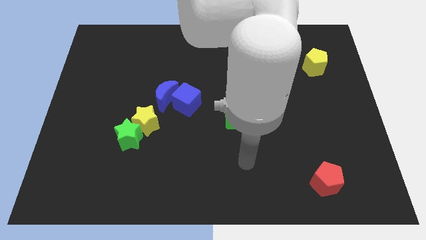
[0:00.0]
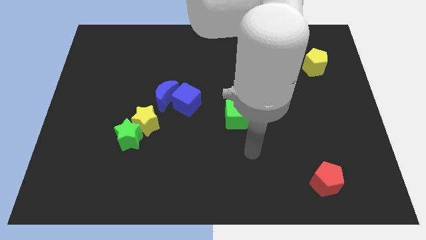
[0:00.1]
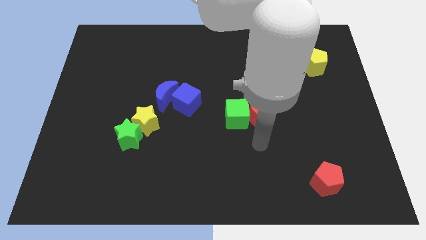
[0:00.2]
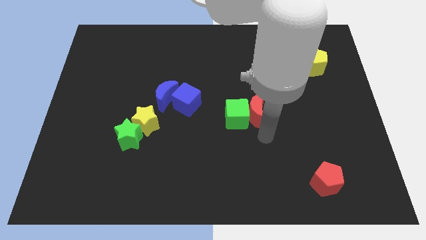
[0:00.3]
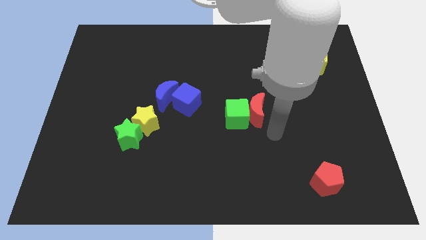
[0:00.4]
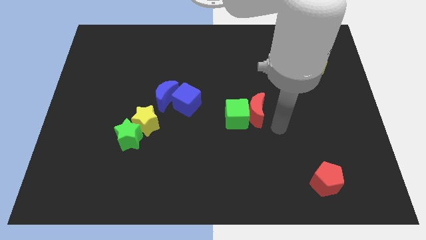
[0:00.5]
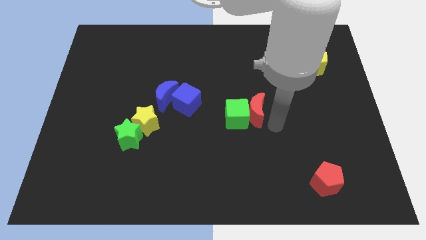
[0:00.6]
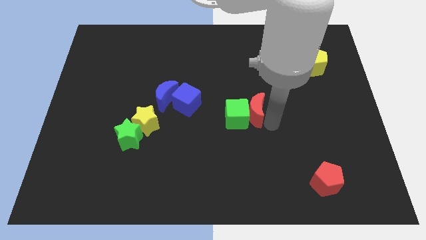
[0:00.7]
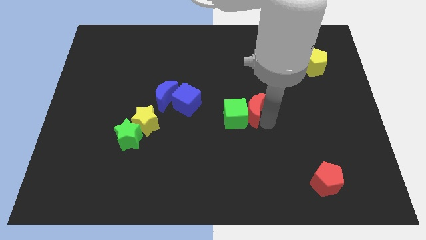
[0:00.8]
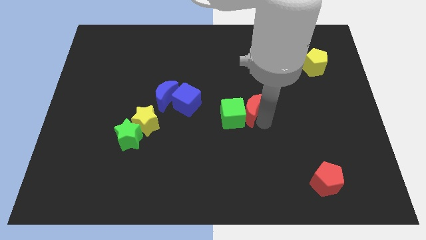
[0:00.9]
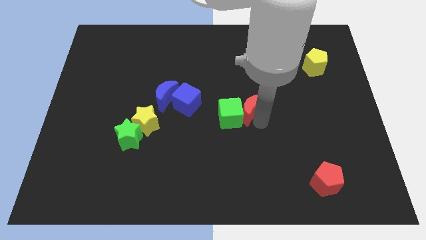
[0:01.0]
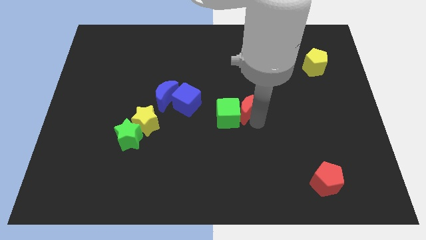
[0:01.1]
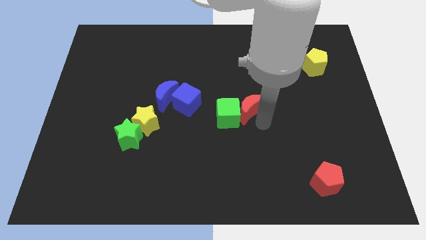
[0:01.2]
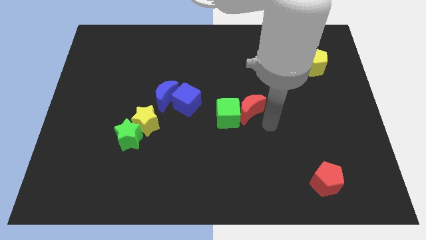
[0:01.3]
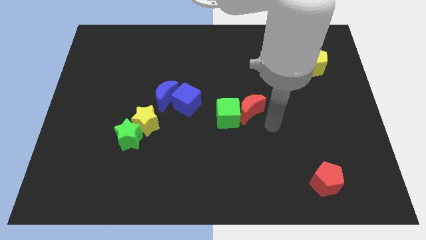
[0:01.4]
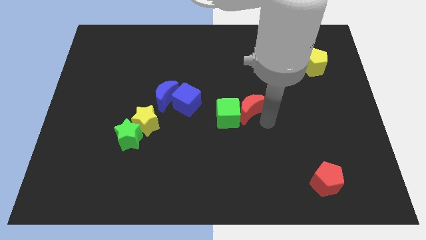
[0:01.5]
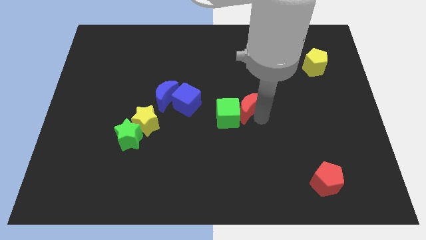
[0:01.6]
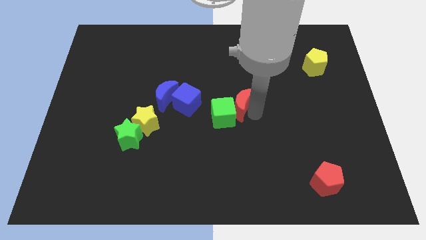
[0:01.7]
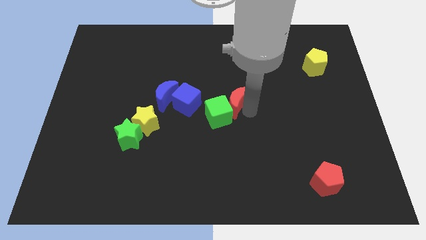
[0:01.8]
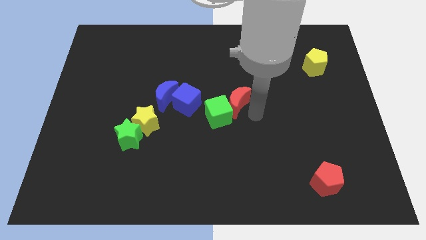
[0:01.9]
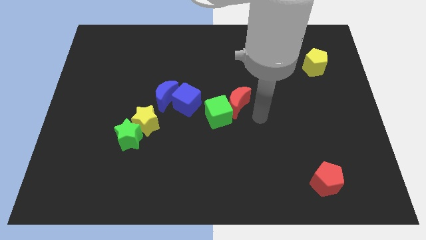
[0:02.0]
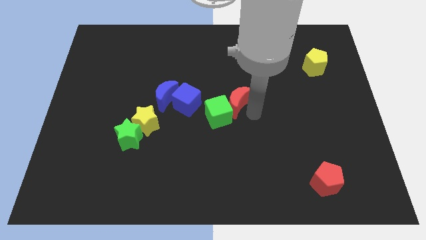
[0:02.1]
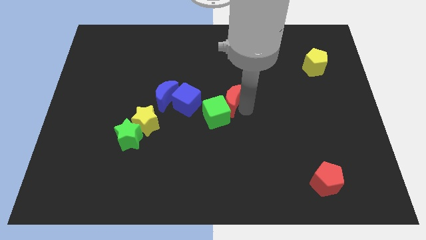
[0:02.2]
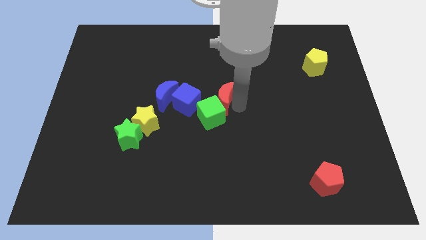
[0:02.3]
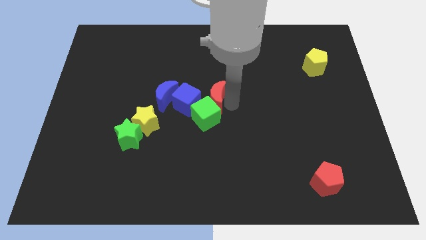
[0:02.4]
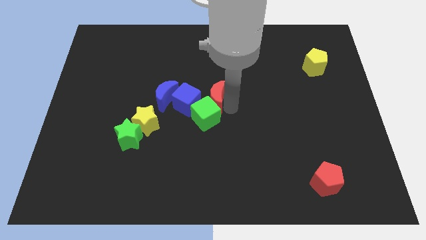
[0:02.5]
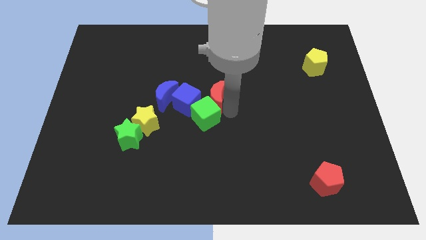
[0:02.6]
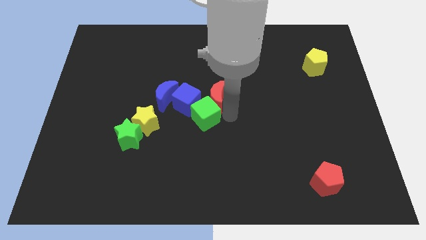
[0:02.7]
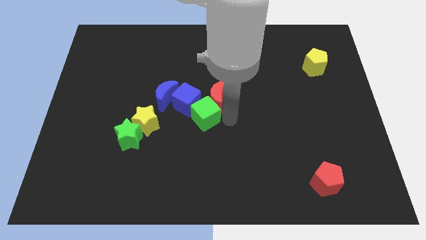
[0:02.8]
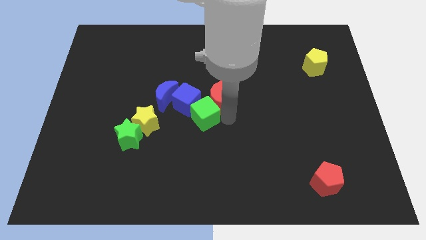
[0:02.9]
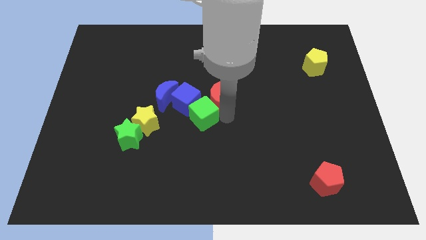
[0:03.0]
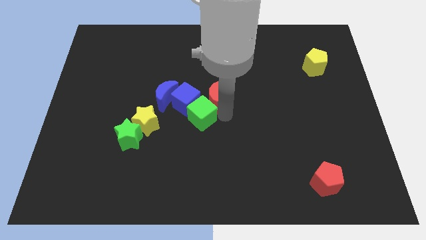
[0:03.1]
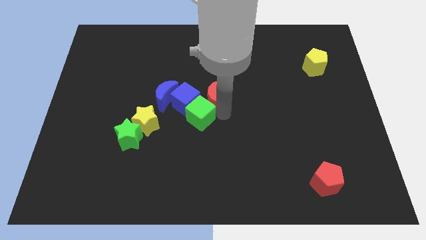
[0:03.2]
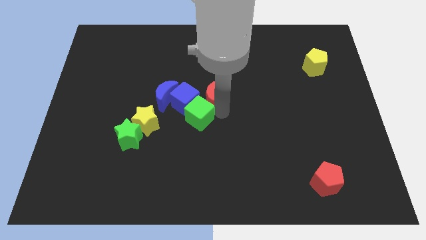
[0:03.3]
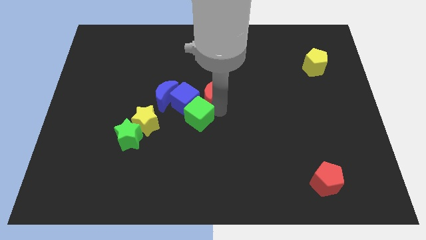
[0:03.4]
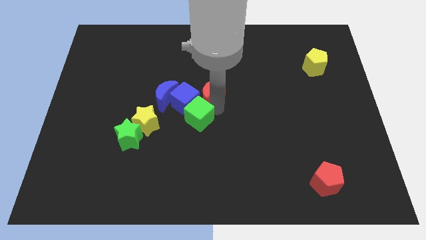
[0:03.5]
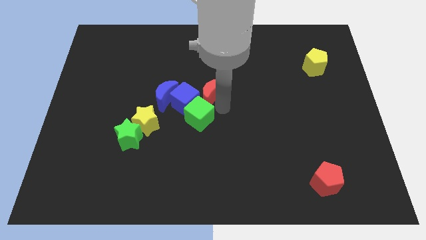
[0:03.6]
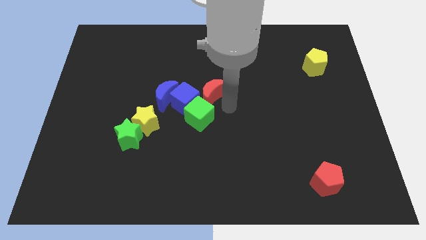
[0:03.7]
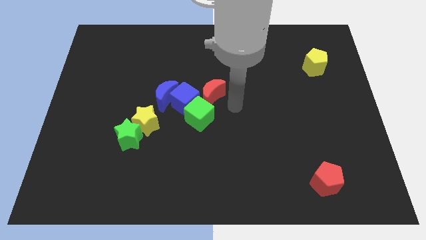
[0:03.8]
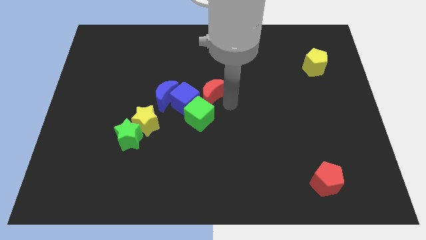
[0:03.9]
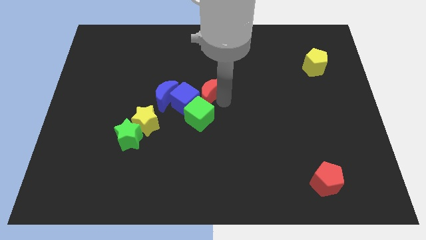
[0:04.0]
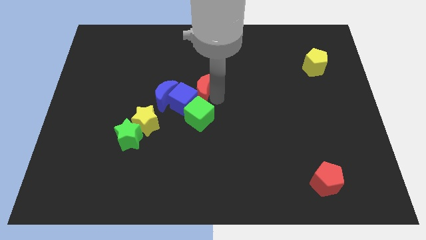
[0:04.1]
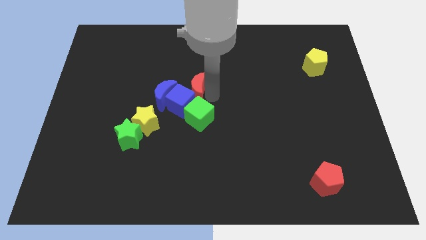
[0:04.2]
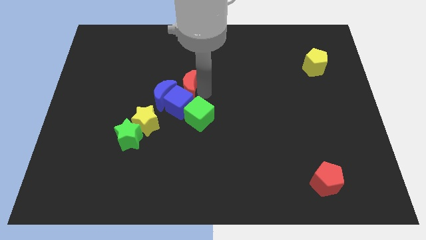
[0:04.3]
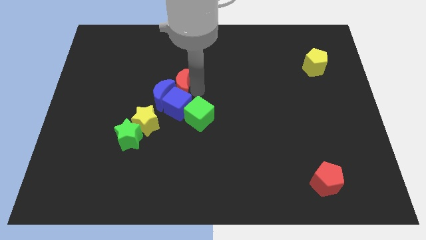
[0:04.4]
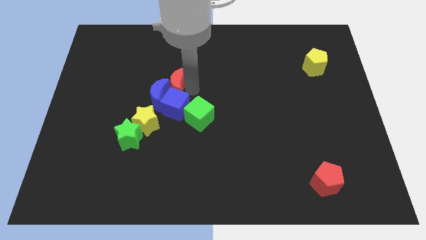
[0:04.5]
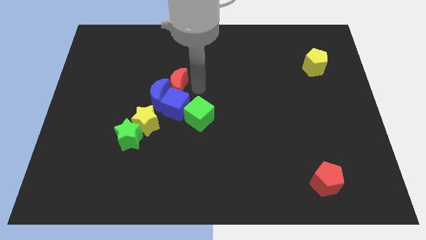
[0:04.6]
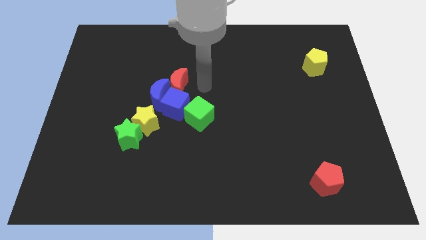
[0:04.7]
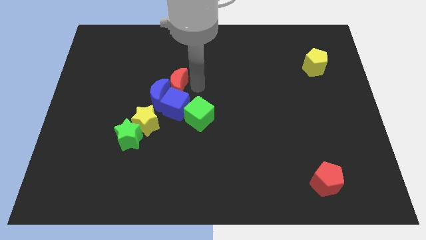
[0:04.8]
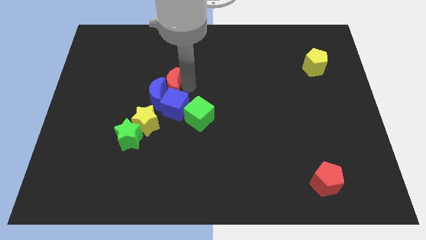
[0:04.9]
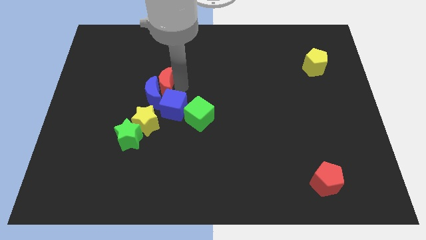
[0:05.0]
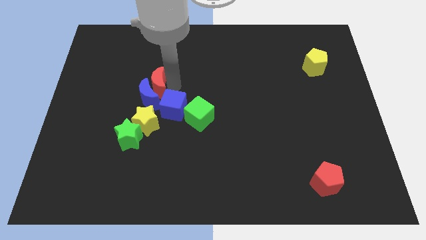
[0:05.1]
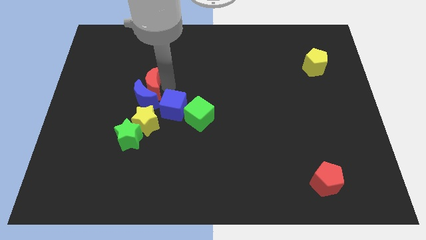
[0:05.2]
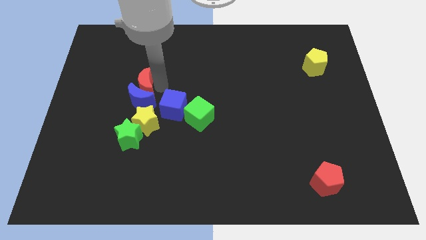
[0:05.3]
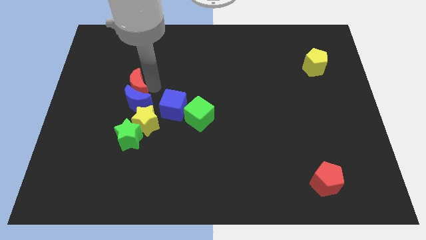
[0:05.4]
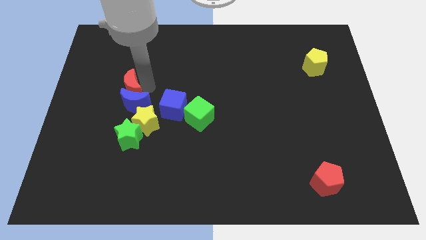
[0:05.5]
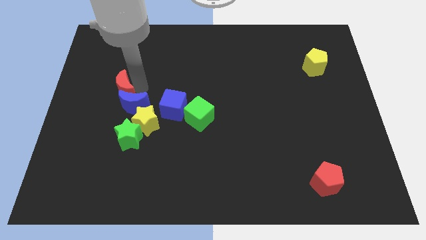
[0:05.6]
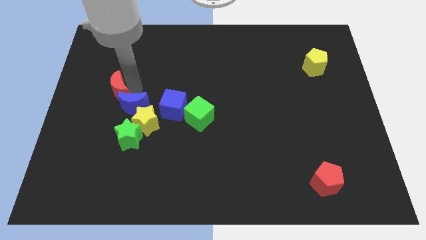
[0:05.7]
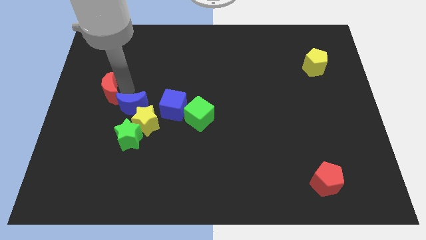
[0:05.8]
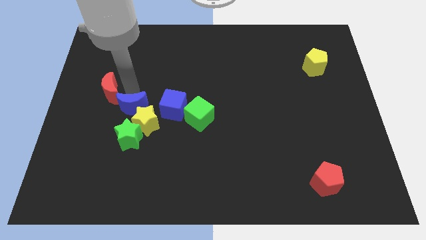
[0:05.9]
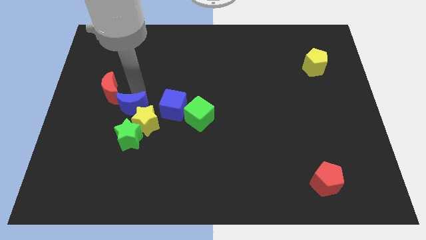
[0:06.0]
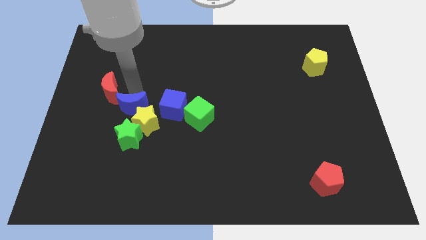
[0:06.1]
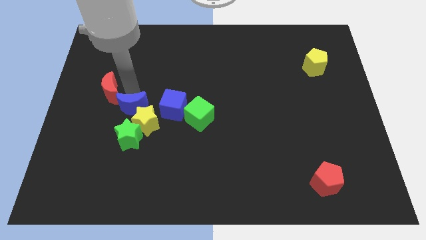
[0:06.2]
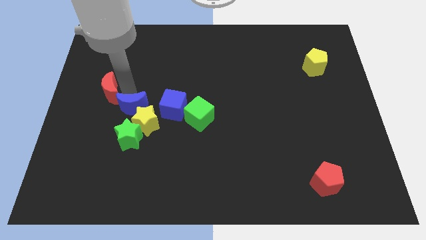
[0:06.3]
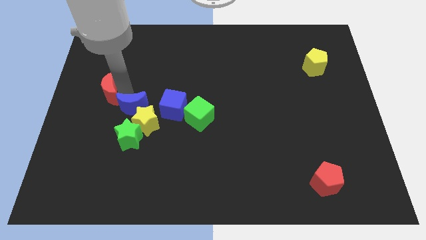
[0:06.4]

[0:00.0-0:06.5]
push the red moon to the left side of the board
